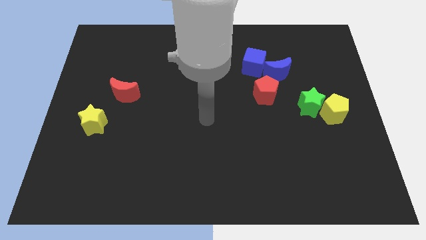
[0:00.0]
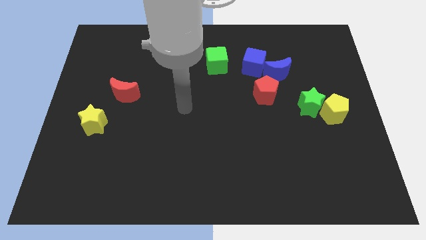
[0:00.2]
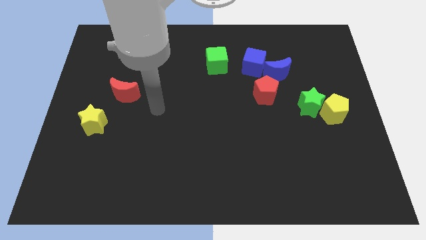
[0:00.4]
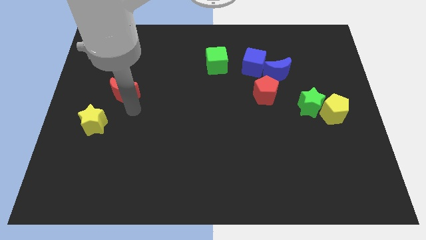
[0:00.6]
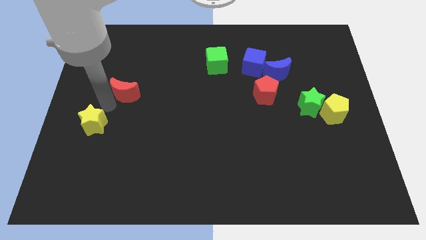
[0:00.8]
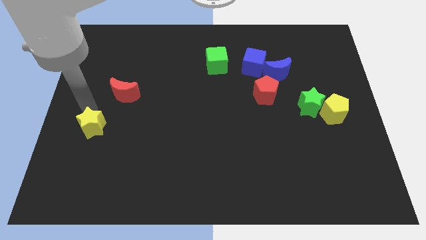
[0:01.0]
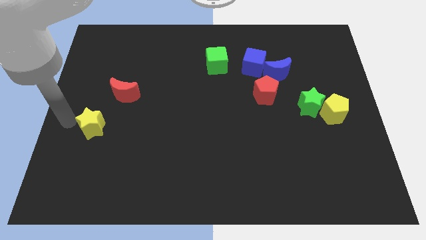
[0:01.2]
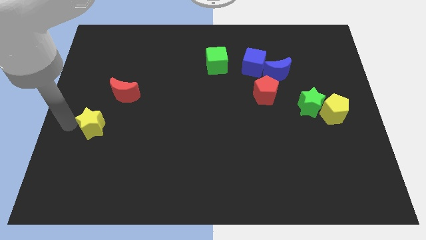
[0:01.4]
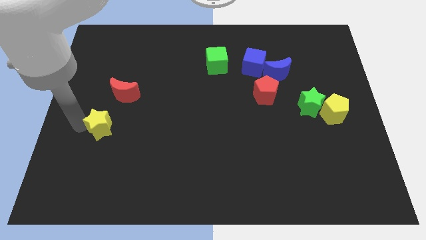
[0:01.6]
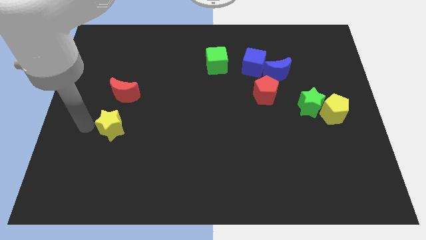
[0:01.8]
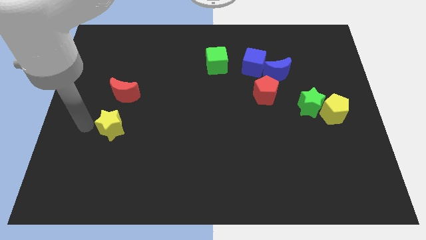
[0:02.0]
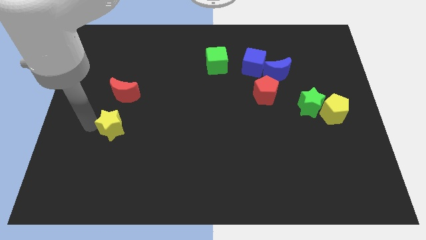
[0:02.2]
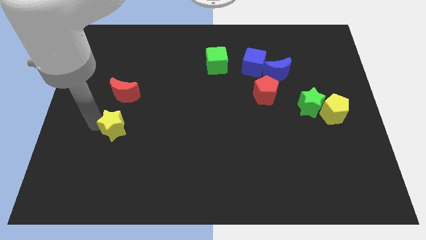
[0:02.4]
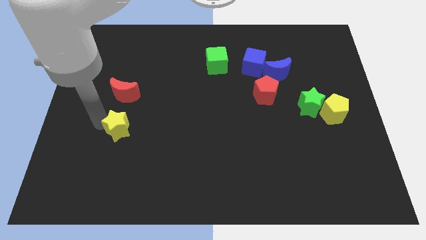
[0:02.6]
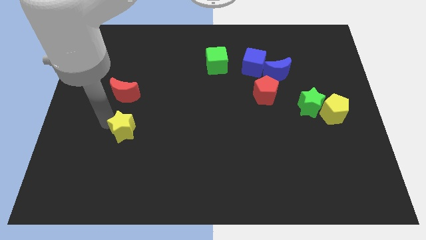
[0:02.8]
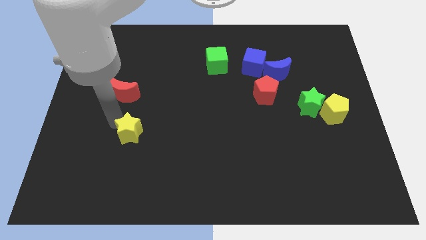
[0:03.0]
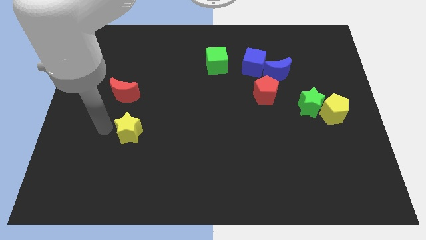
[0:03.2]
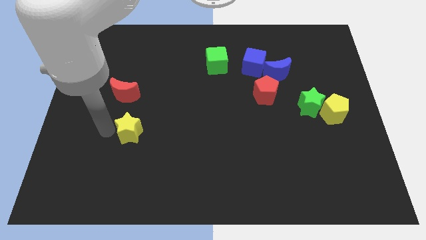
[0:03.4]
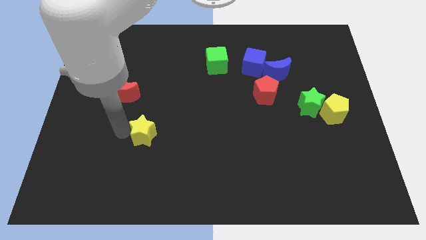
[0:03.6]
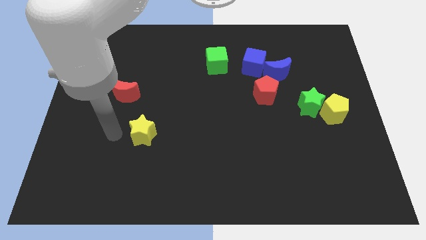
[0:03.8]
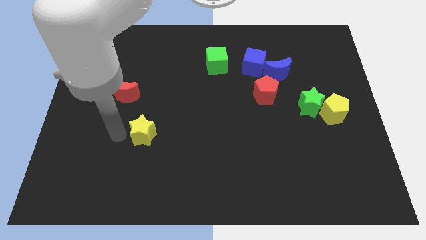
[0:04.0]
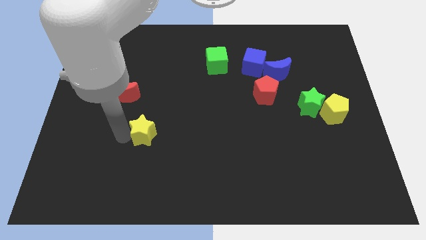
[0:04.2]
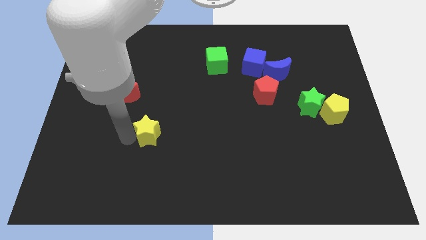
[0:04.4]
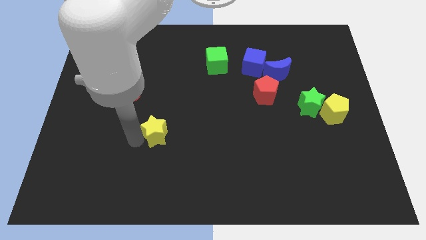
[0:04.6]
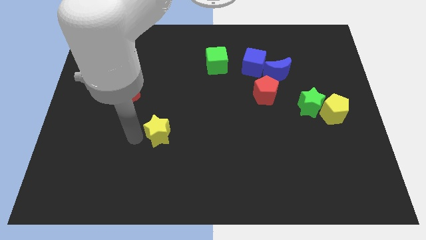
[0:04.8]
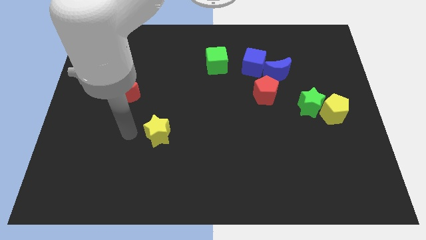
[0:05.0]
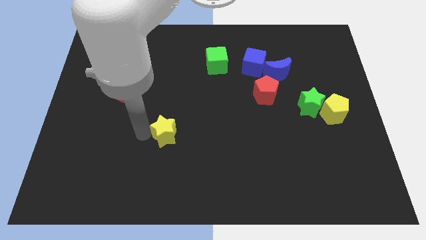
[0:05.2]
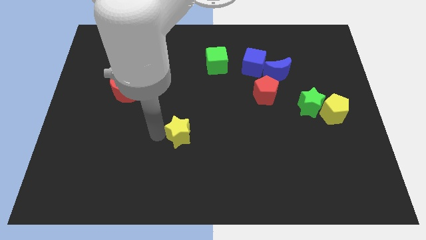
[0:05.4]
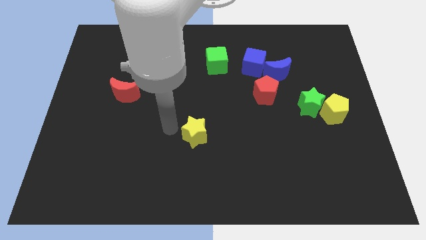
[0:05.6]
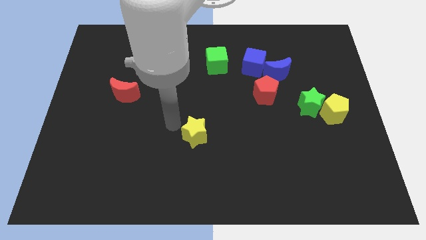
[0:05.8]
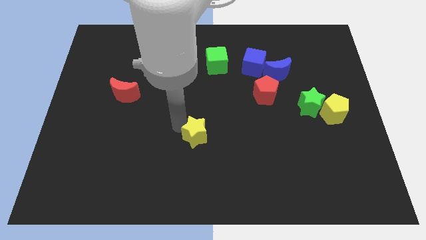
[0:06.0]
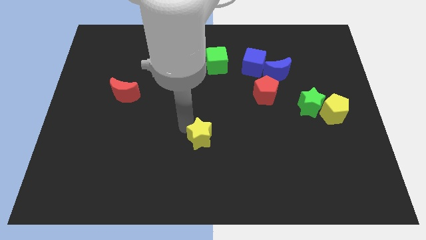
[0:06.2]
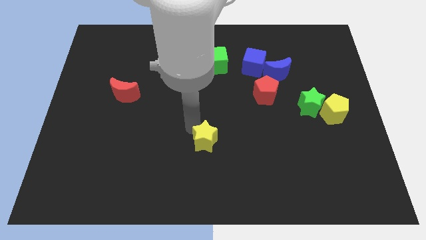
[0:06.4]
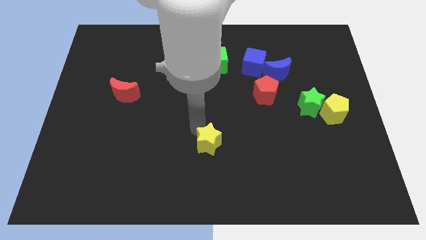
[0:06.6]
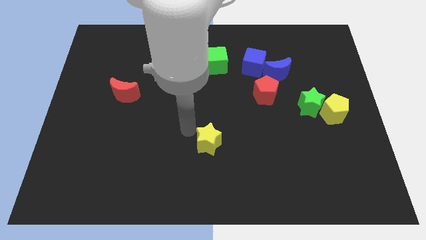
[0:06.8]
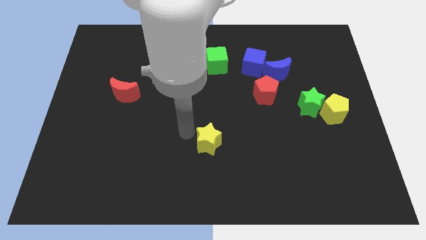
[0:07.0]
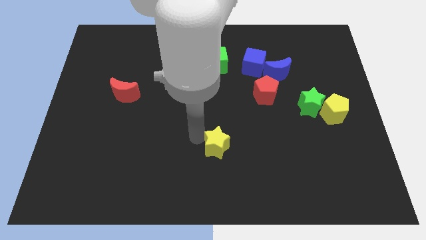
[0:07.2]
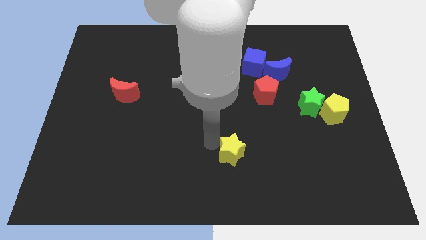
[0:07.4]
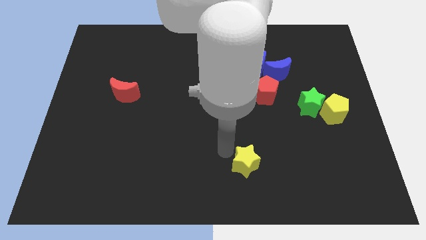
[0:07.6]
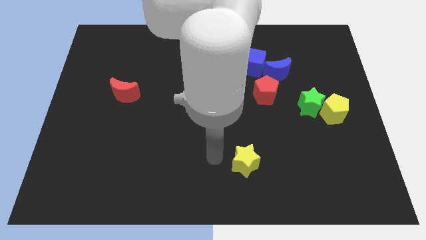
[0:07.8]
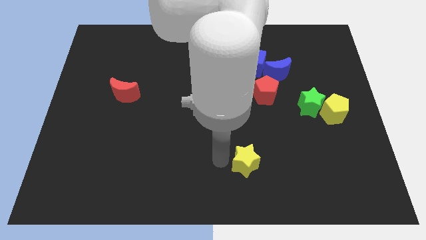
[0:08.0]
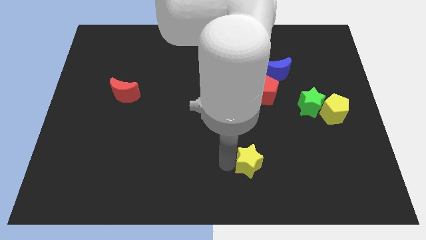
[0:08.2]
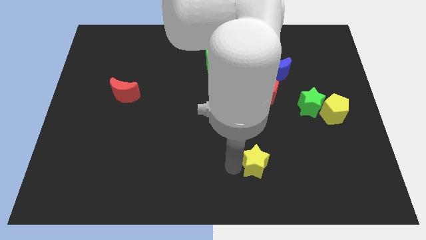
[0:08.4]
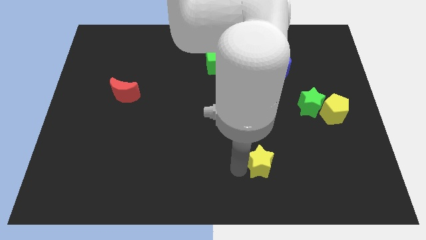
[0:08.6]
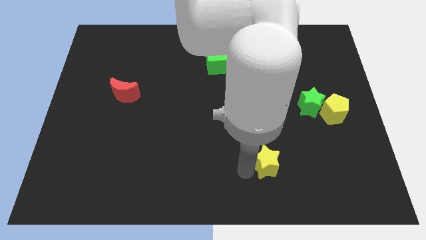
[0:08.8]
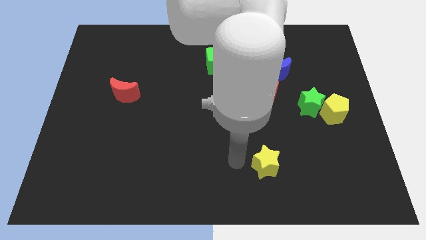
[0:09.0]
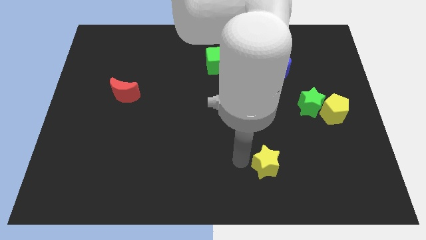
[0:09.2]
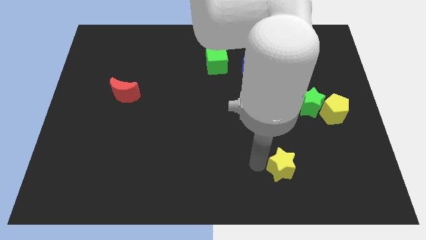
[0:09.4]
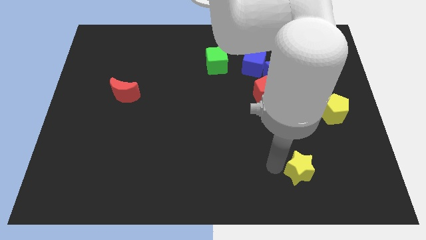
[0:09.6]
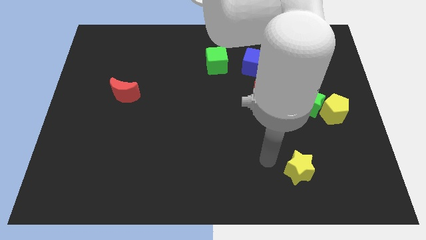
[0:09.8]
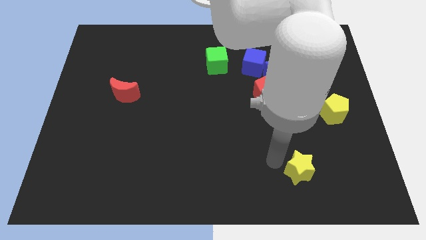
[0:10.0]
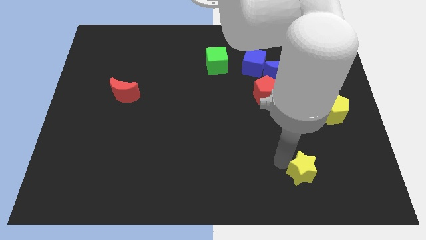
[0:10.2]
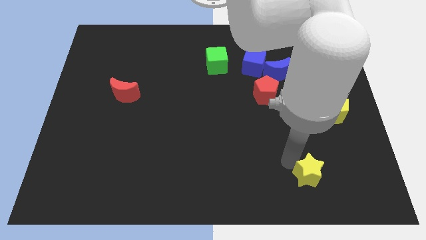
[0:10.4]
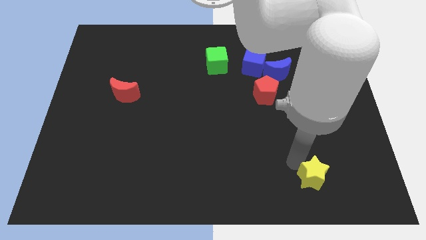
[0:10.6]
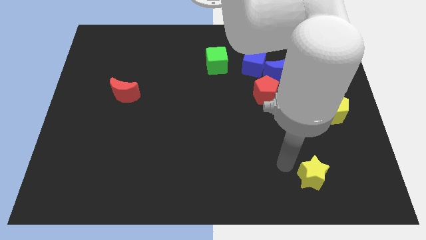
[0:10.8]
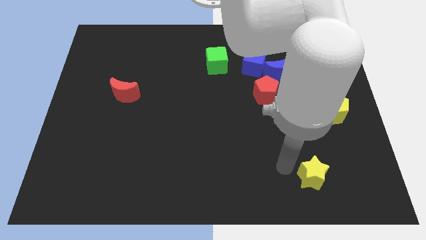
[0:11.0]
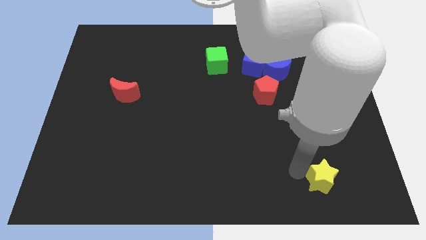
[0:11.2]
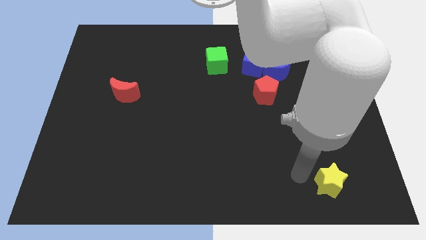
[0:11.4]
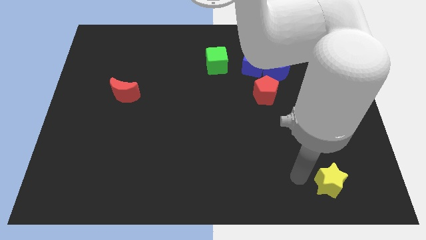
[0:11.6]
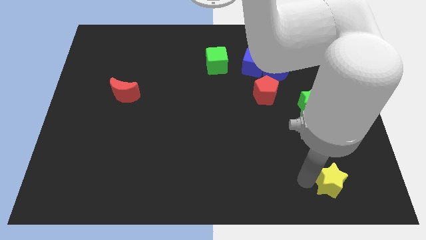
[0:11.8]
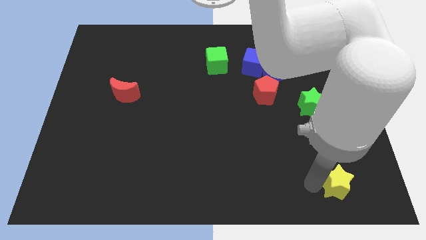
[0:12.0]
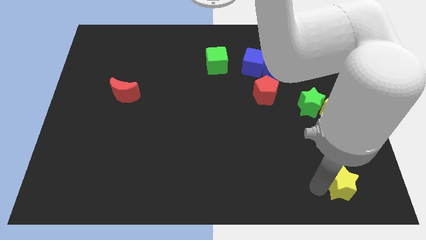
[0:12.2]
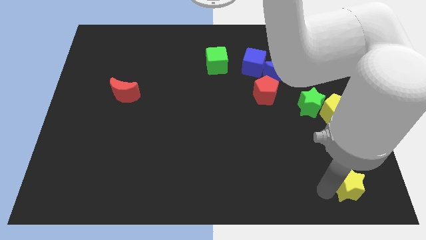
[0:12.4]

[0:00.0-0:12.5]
put the yellow star to the bottom right of the board
